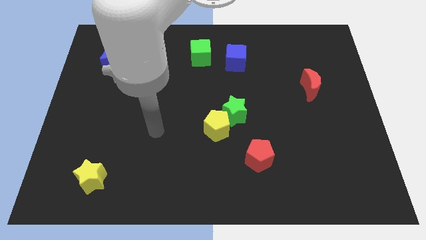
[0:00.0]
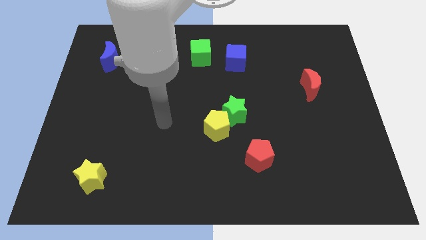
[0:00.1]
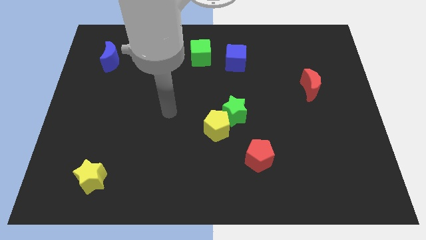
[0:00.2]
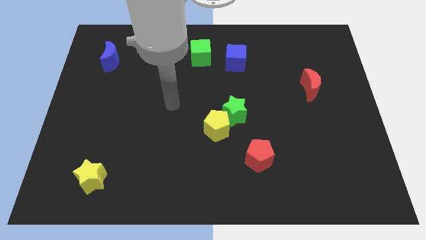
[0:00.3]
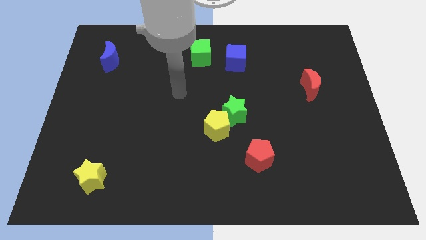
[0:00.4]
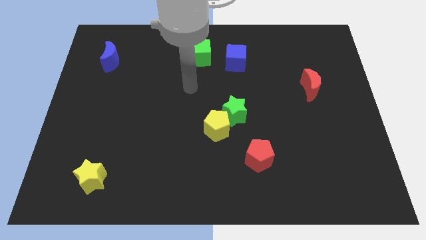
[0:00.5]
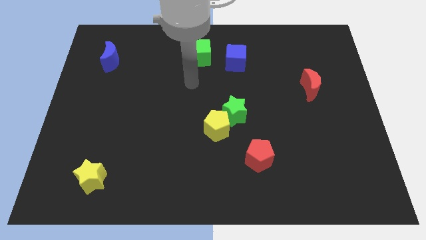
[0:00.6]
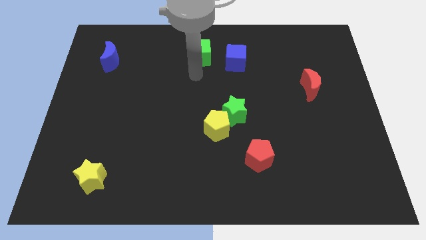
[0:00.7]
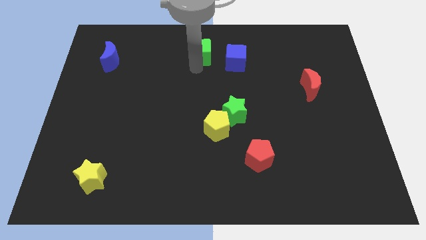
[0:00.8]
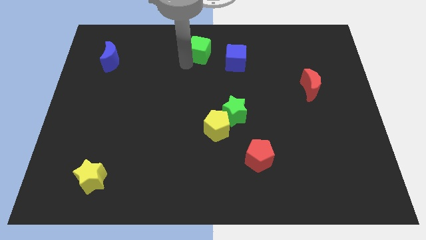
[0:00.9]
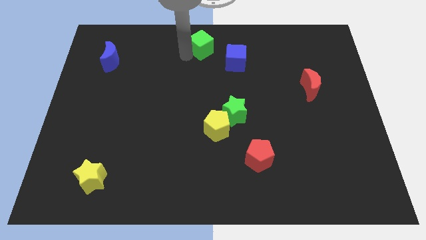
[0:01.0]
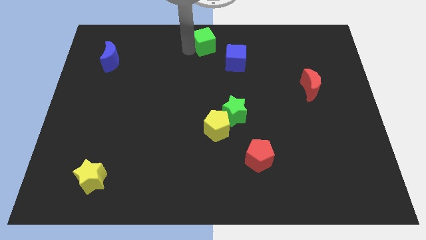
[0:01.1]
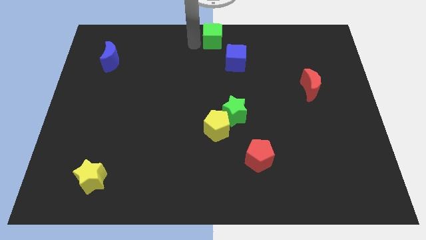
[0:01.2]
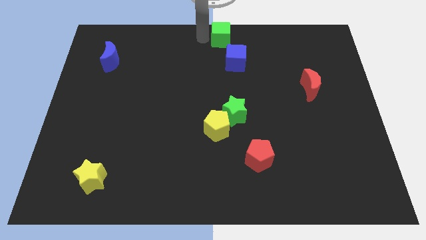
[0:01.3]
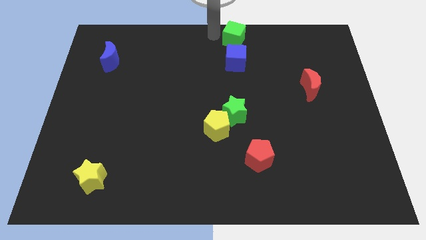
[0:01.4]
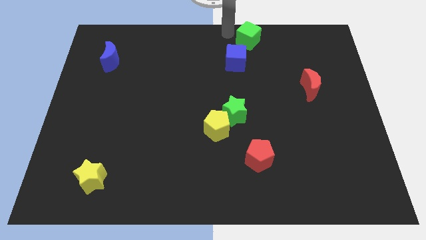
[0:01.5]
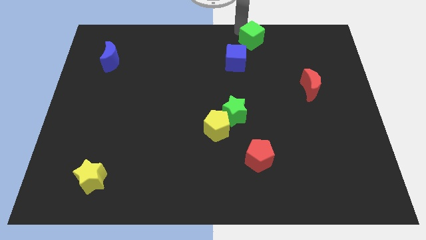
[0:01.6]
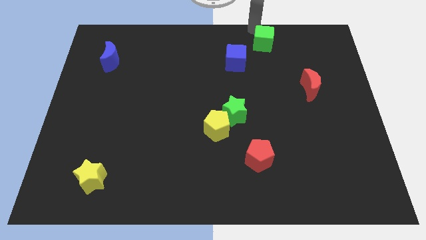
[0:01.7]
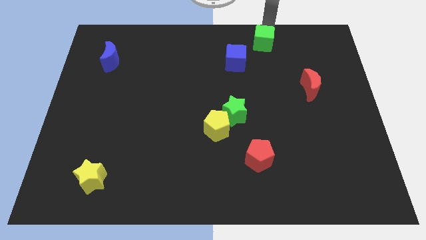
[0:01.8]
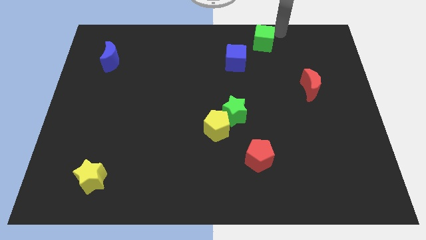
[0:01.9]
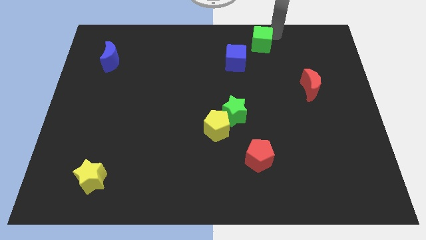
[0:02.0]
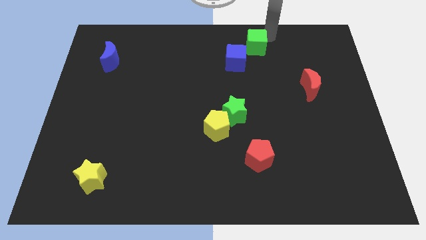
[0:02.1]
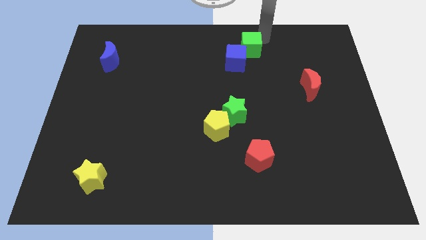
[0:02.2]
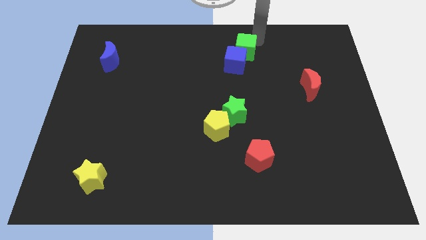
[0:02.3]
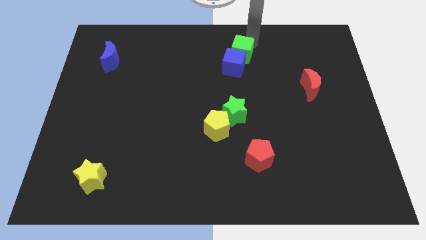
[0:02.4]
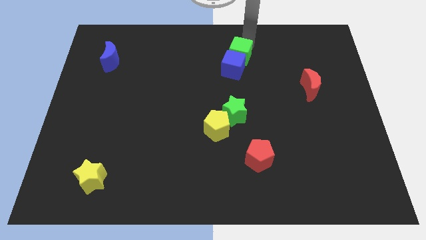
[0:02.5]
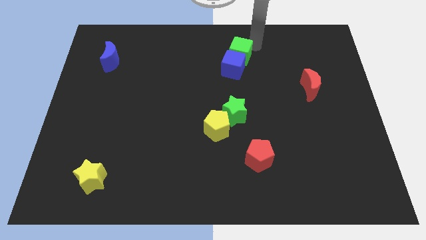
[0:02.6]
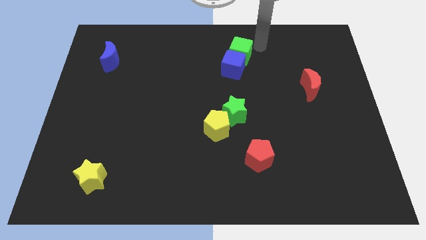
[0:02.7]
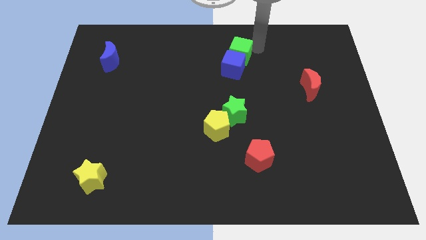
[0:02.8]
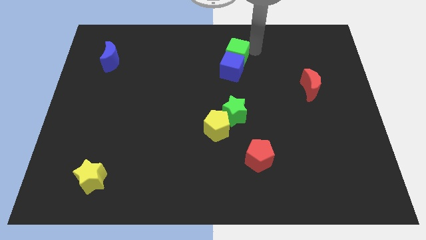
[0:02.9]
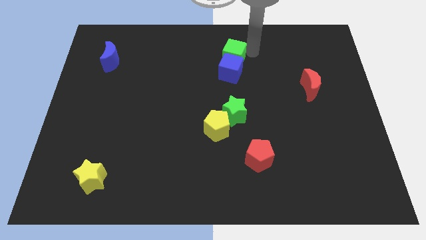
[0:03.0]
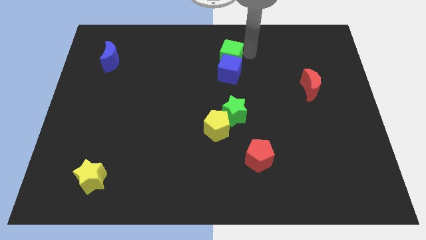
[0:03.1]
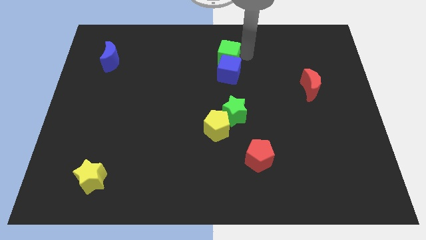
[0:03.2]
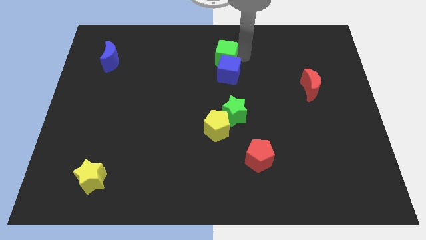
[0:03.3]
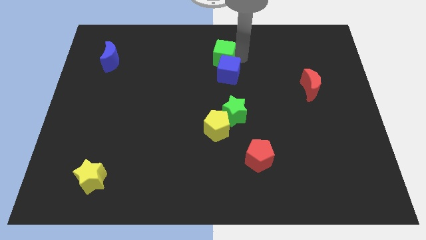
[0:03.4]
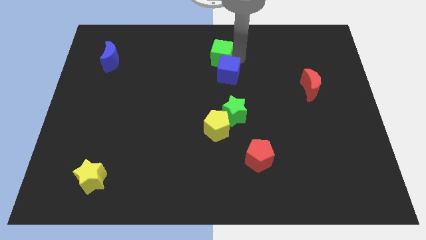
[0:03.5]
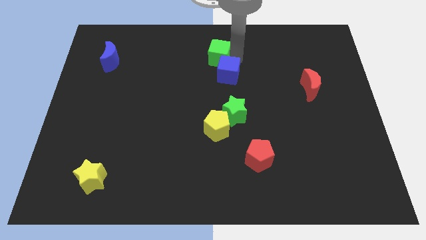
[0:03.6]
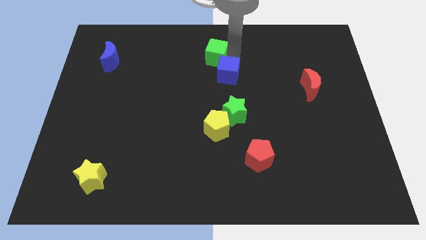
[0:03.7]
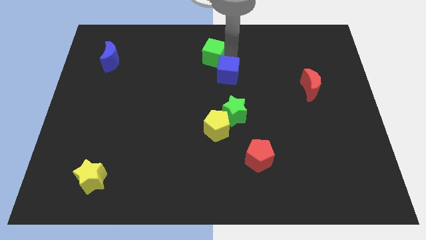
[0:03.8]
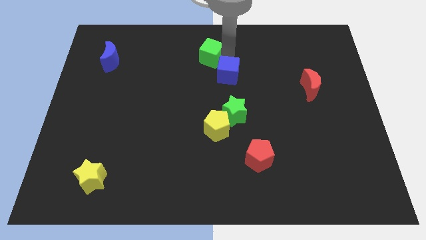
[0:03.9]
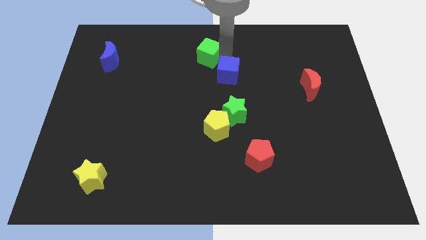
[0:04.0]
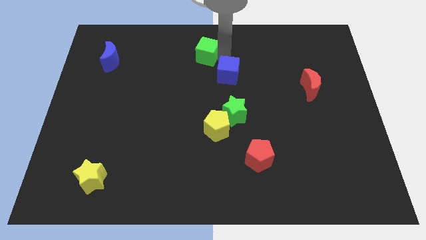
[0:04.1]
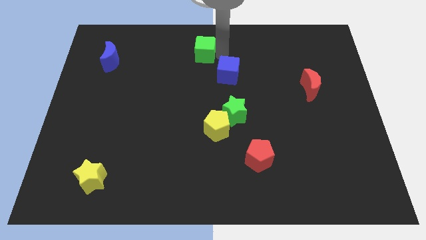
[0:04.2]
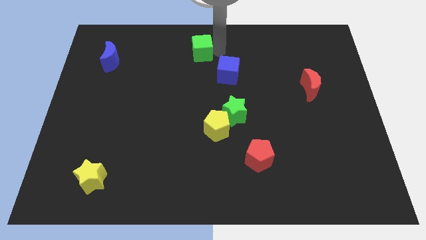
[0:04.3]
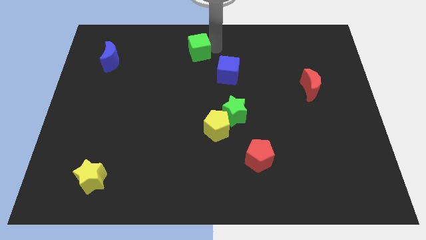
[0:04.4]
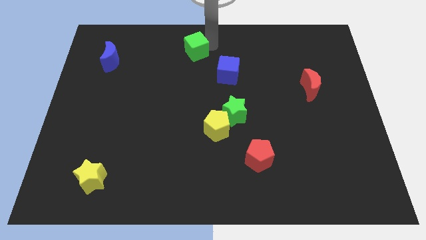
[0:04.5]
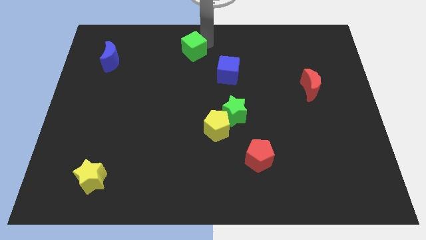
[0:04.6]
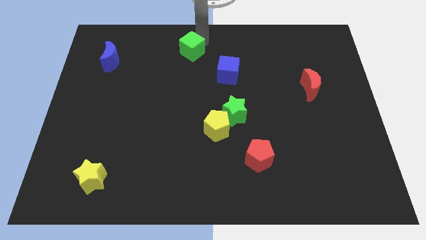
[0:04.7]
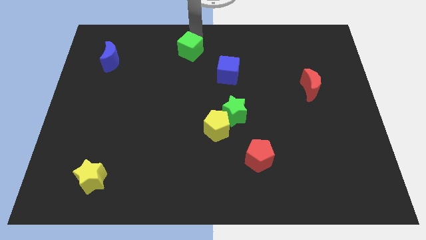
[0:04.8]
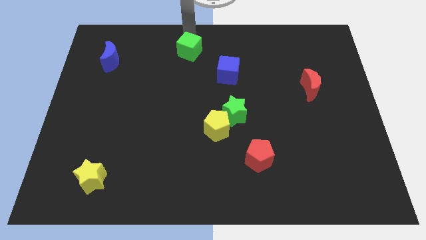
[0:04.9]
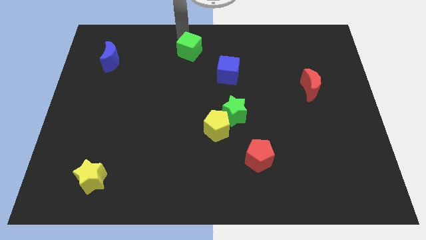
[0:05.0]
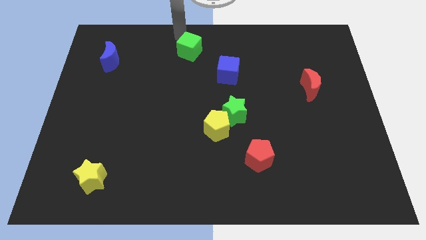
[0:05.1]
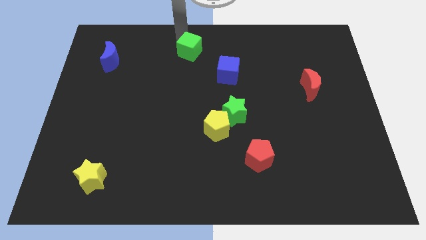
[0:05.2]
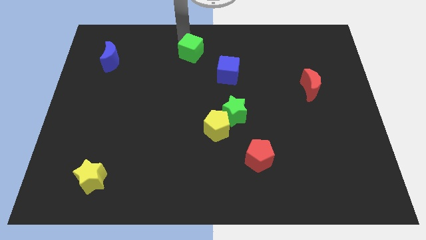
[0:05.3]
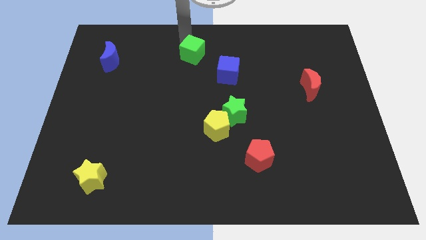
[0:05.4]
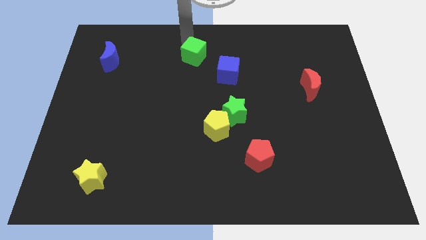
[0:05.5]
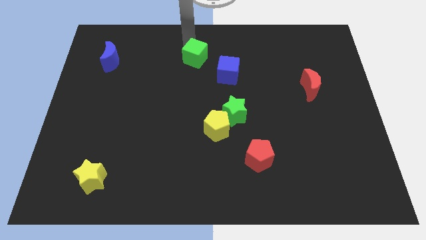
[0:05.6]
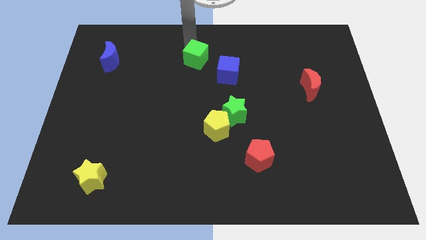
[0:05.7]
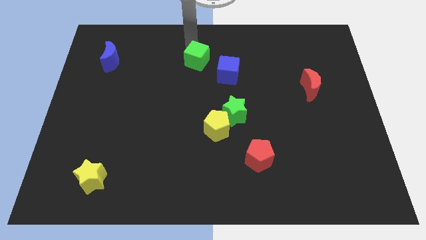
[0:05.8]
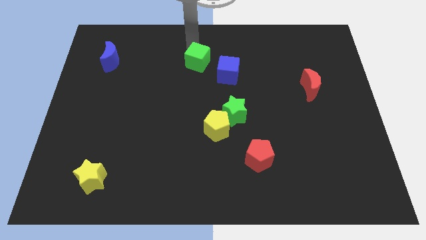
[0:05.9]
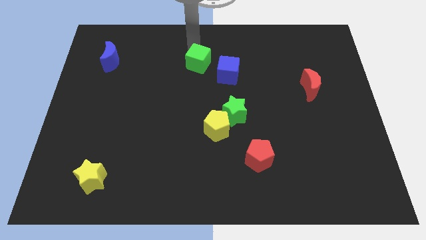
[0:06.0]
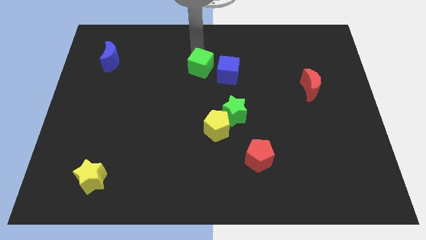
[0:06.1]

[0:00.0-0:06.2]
slide the green cube to the middle of the board

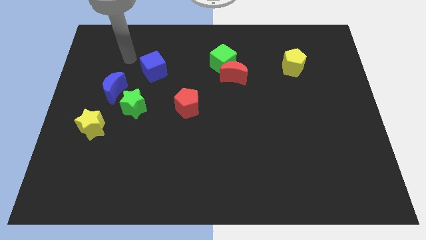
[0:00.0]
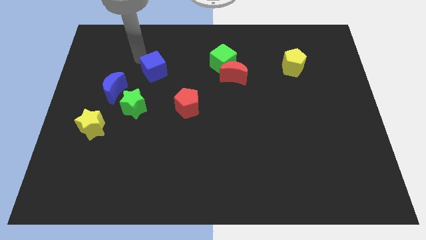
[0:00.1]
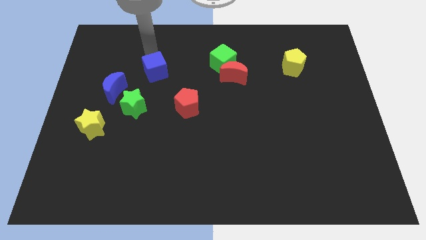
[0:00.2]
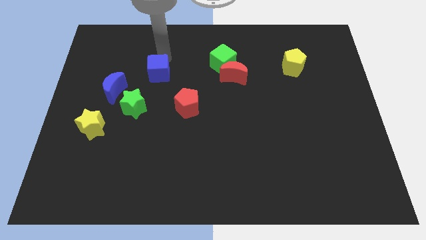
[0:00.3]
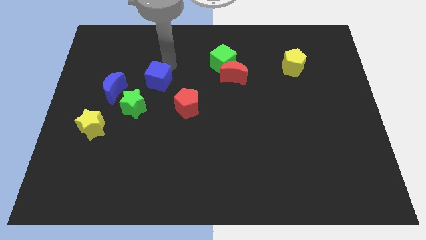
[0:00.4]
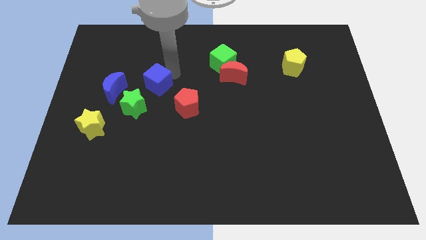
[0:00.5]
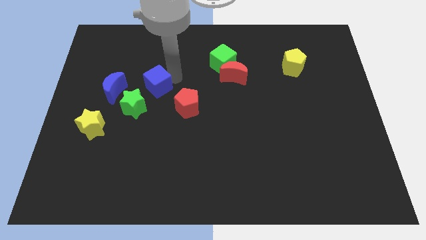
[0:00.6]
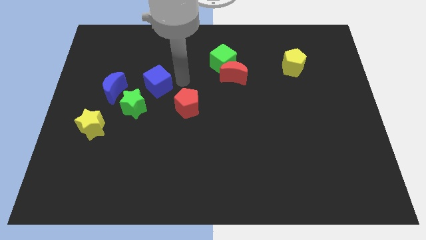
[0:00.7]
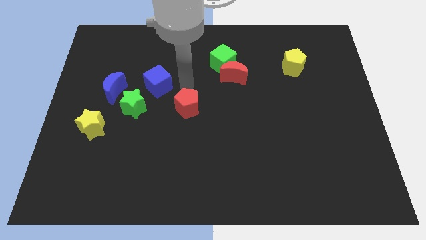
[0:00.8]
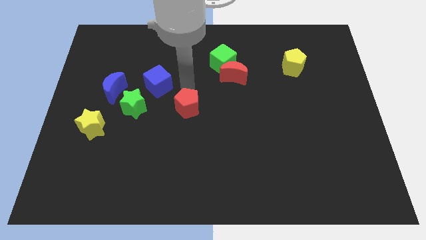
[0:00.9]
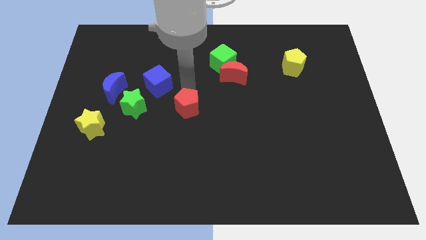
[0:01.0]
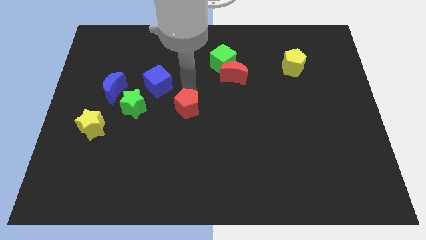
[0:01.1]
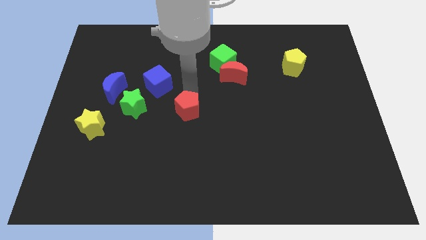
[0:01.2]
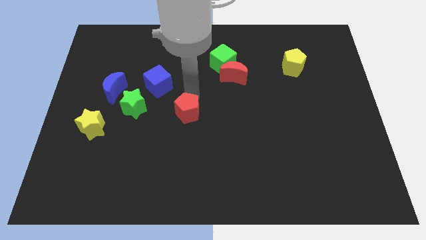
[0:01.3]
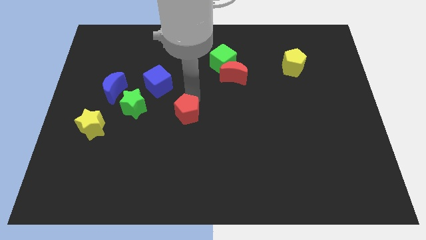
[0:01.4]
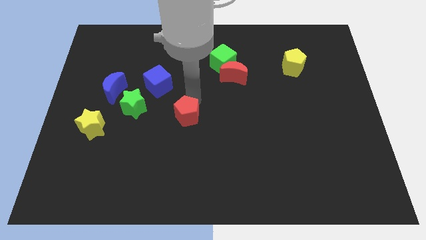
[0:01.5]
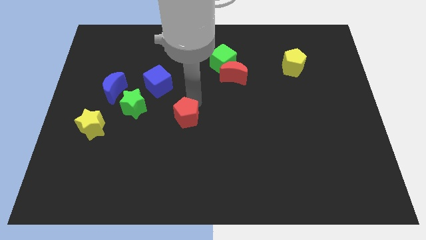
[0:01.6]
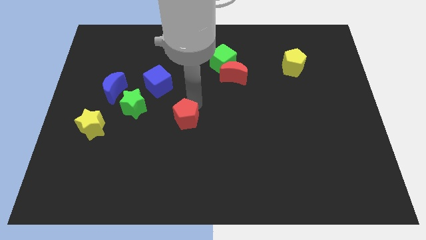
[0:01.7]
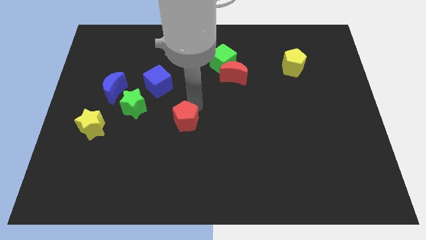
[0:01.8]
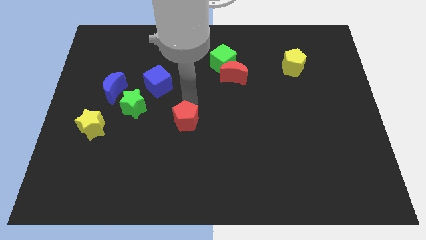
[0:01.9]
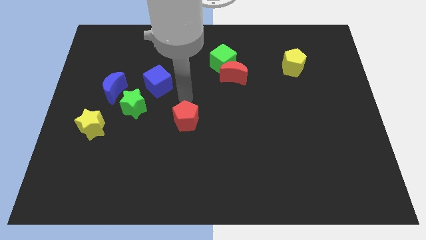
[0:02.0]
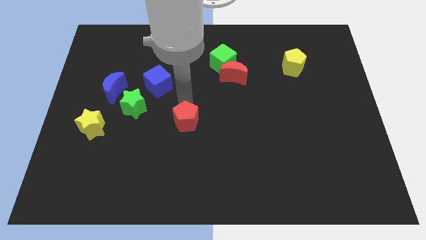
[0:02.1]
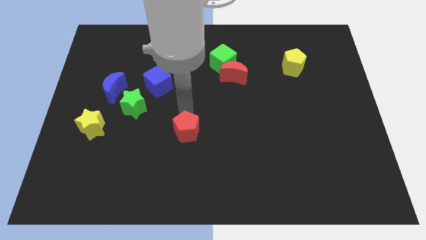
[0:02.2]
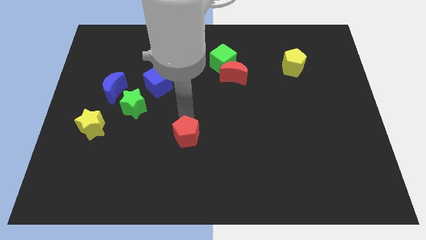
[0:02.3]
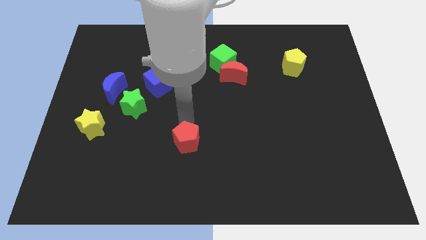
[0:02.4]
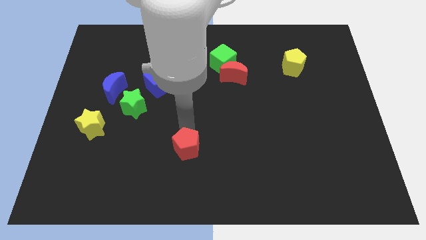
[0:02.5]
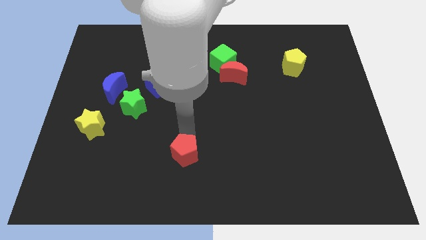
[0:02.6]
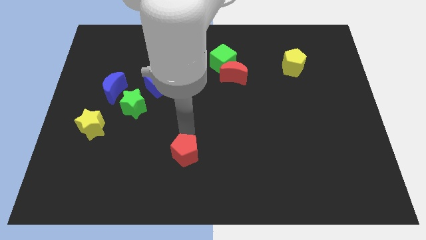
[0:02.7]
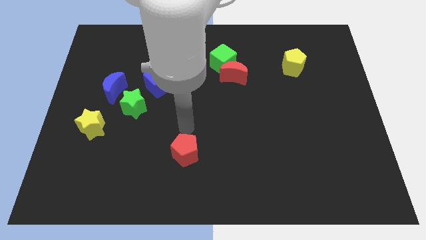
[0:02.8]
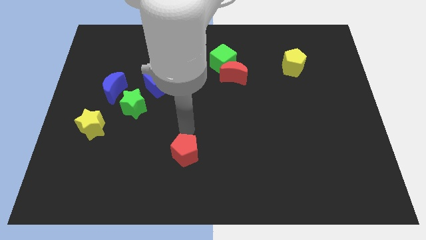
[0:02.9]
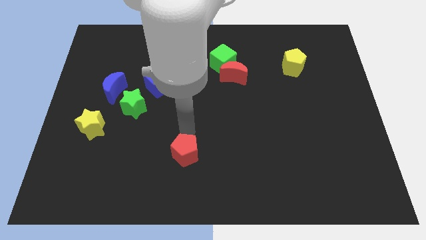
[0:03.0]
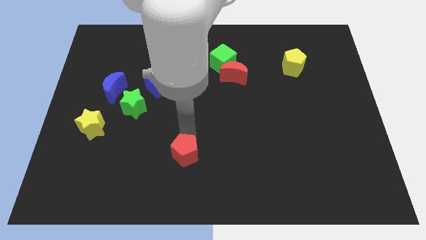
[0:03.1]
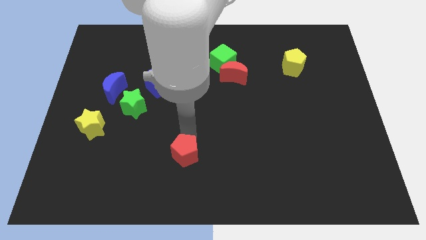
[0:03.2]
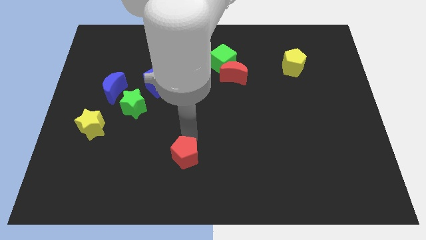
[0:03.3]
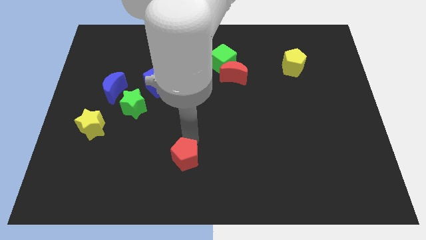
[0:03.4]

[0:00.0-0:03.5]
move the red pentagon to the bottom
